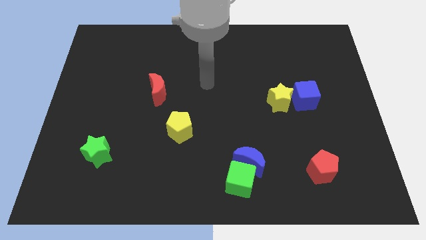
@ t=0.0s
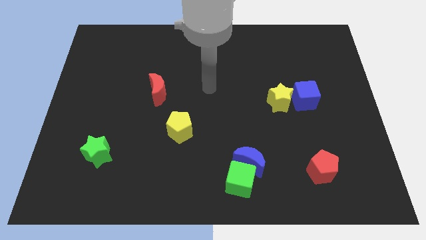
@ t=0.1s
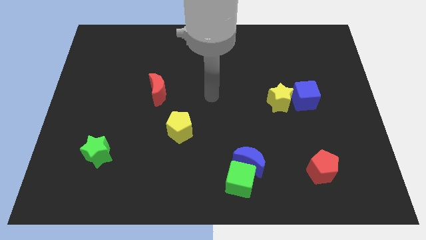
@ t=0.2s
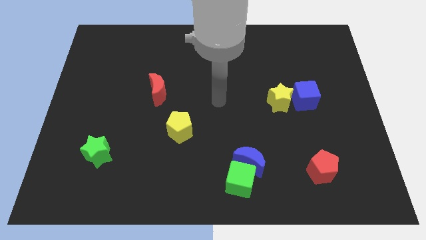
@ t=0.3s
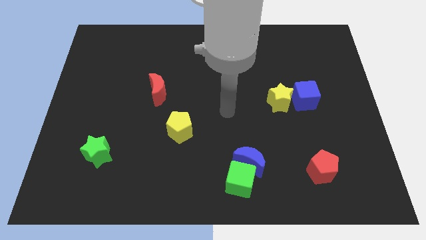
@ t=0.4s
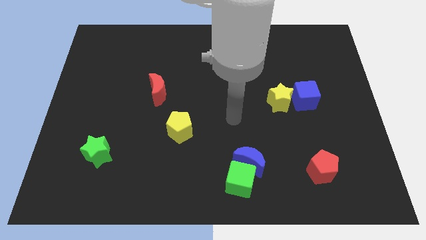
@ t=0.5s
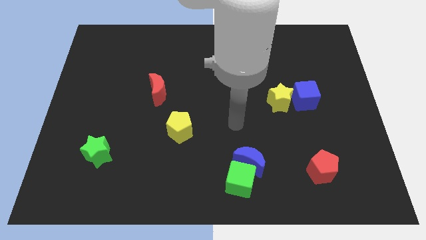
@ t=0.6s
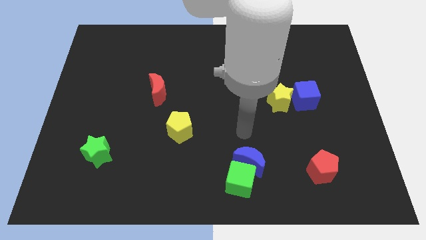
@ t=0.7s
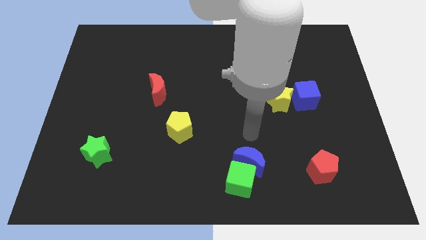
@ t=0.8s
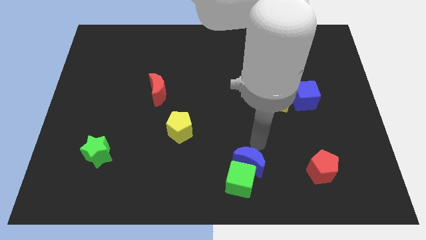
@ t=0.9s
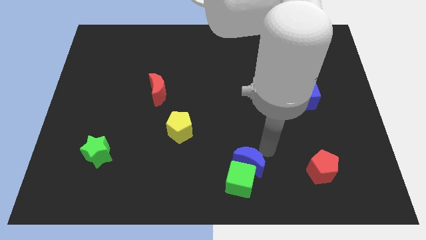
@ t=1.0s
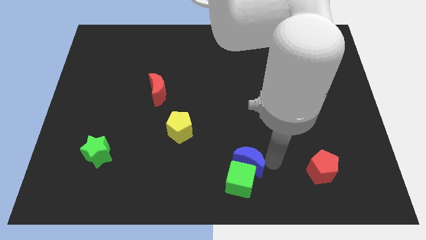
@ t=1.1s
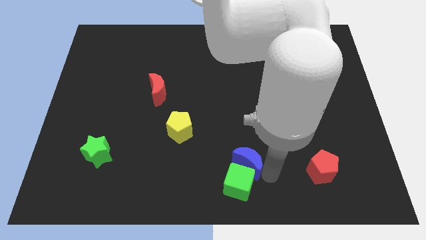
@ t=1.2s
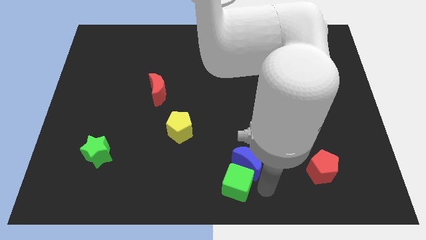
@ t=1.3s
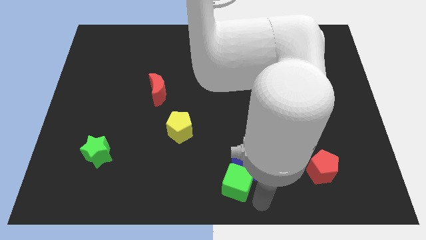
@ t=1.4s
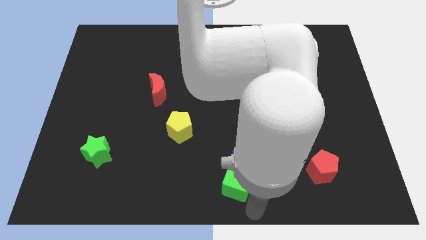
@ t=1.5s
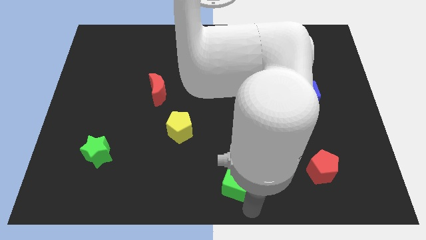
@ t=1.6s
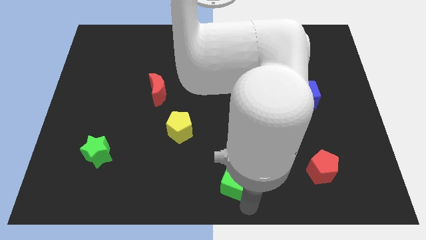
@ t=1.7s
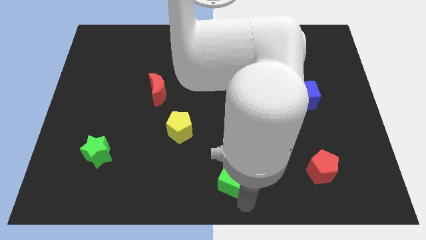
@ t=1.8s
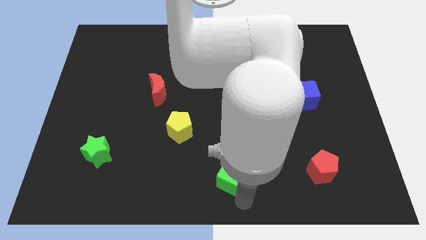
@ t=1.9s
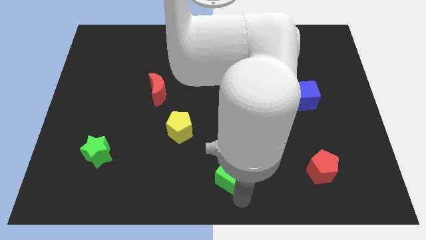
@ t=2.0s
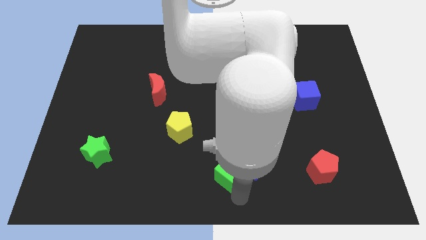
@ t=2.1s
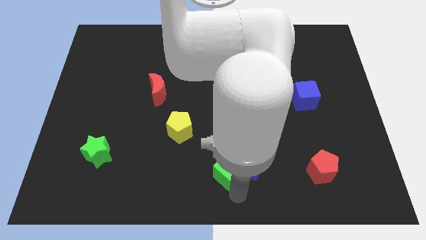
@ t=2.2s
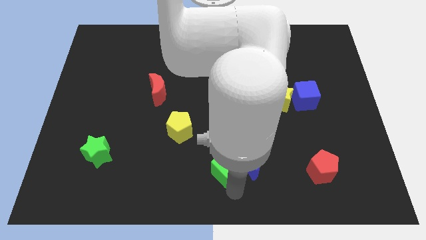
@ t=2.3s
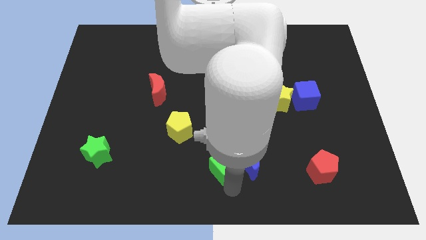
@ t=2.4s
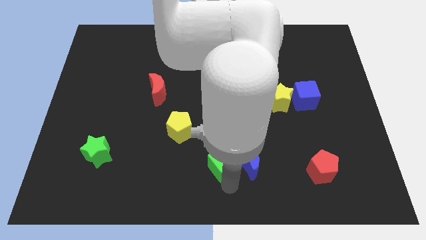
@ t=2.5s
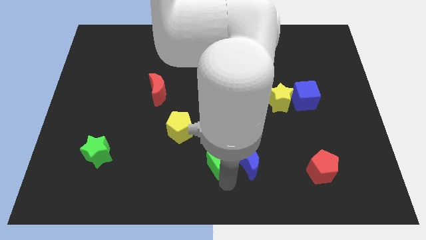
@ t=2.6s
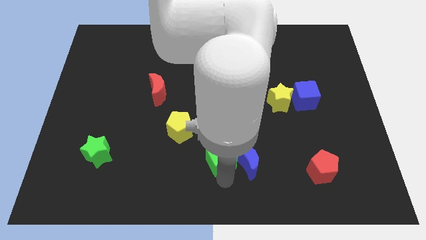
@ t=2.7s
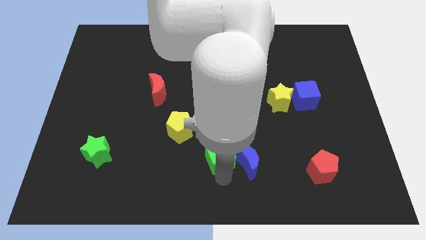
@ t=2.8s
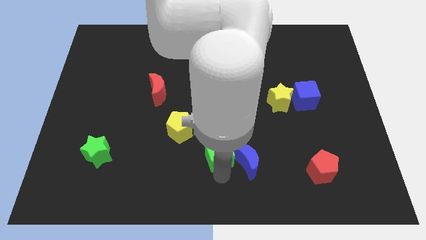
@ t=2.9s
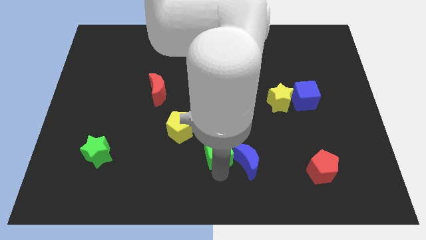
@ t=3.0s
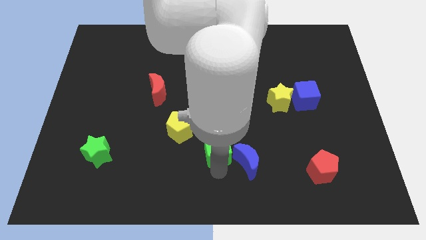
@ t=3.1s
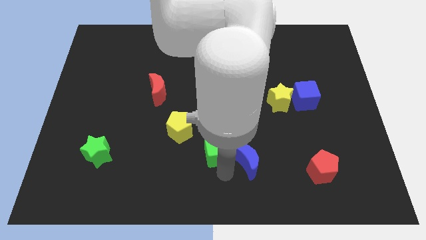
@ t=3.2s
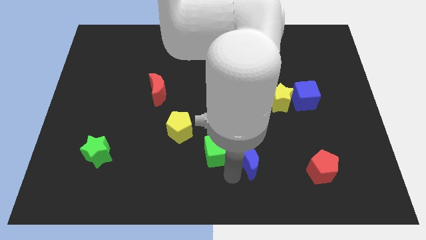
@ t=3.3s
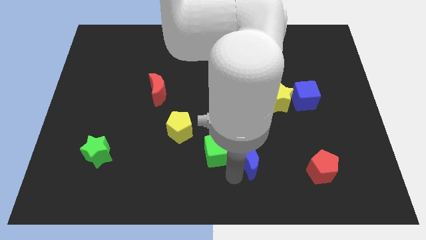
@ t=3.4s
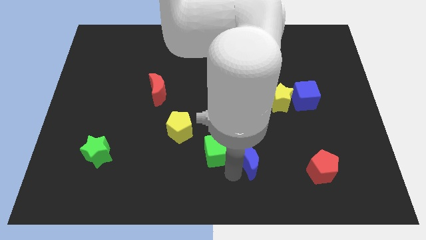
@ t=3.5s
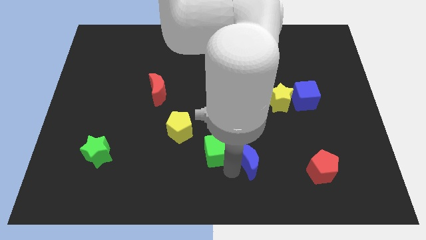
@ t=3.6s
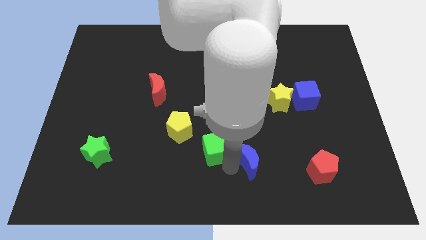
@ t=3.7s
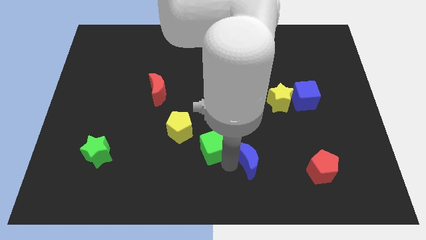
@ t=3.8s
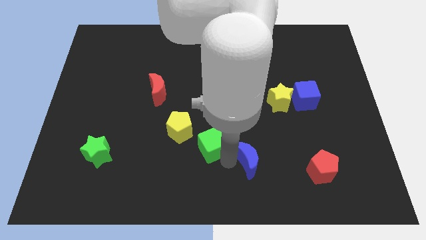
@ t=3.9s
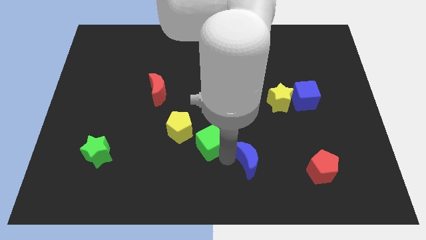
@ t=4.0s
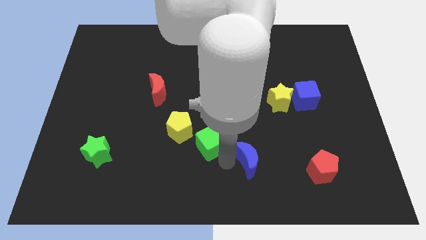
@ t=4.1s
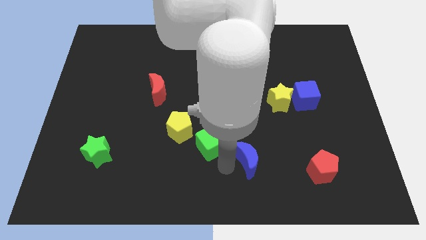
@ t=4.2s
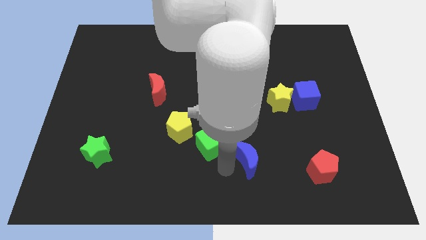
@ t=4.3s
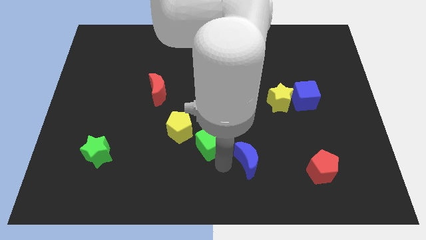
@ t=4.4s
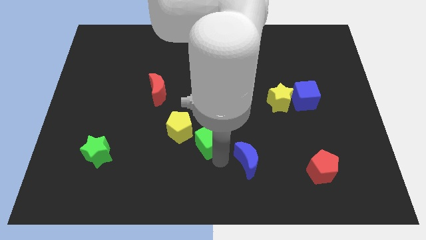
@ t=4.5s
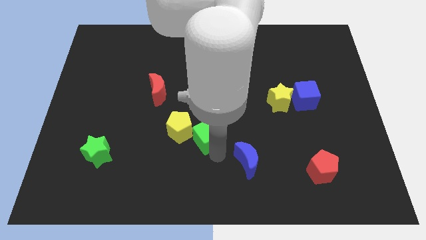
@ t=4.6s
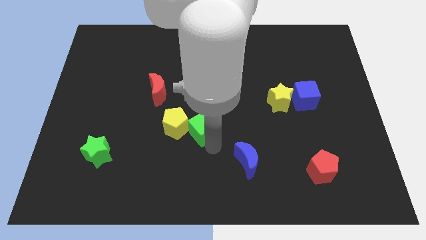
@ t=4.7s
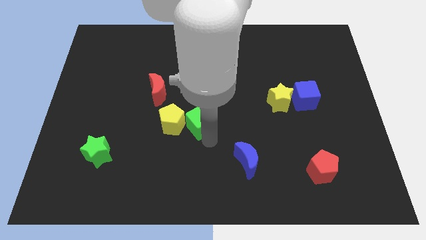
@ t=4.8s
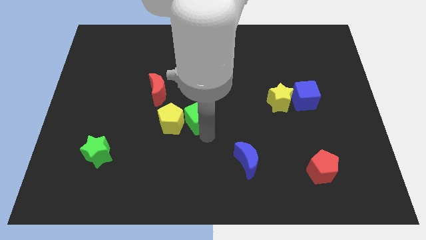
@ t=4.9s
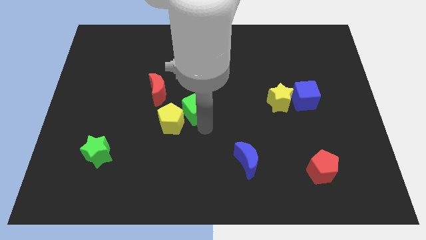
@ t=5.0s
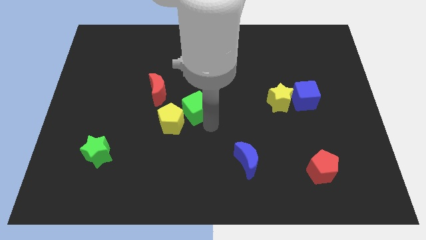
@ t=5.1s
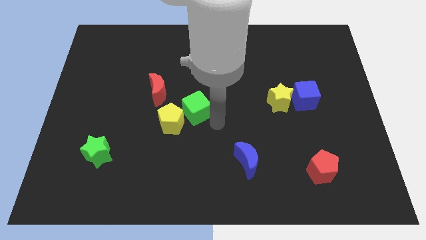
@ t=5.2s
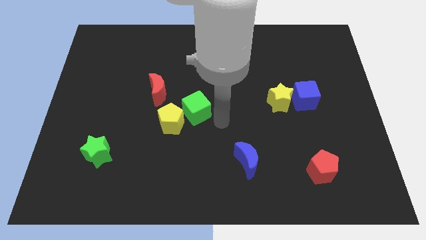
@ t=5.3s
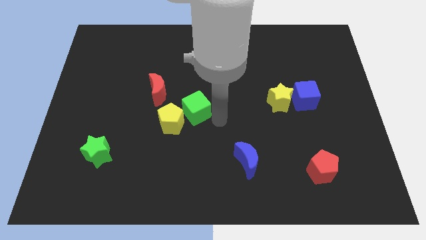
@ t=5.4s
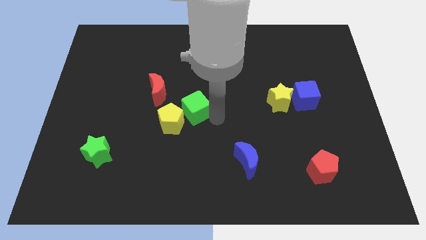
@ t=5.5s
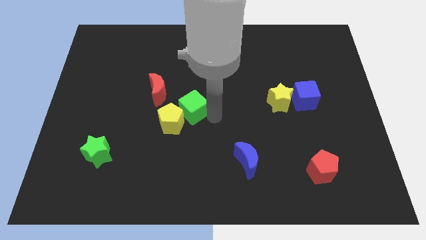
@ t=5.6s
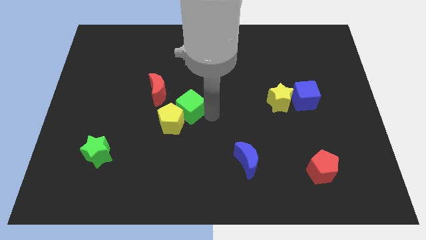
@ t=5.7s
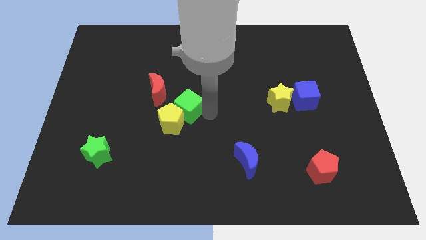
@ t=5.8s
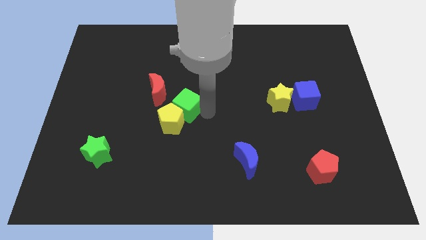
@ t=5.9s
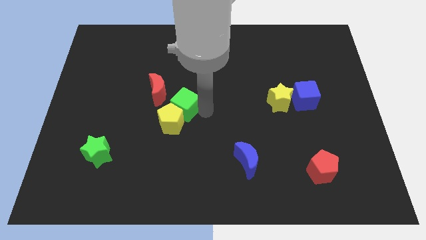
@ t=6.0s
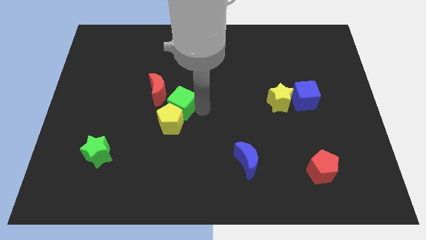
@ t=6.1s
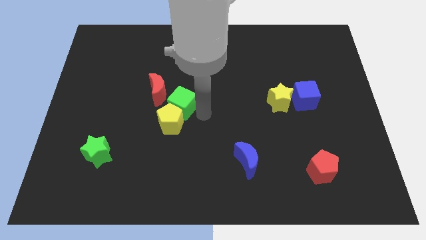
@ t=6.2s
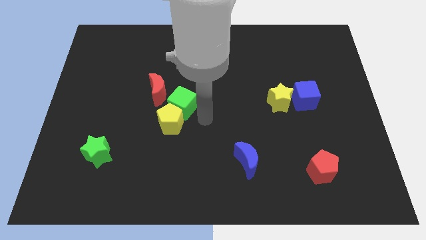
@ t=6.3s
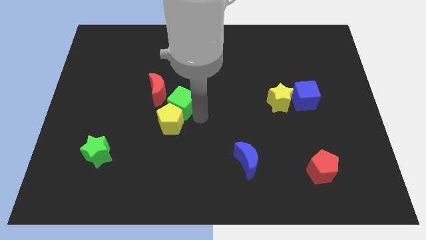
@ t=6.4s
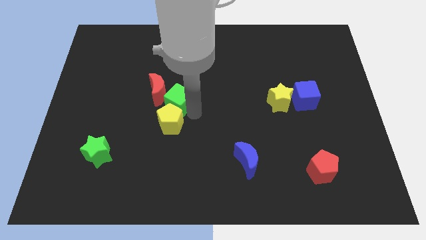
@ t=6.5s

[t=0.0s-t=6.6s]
slide the green cube close to the red moon
